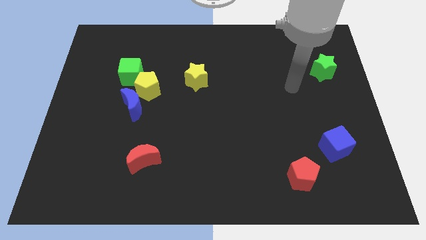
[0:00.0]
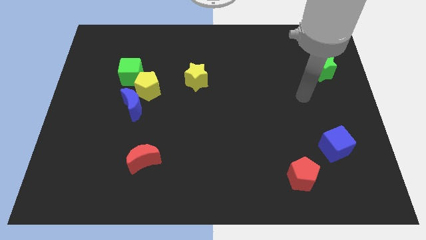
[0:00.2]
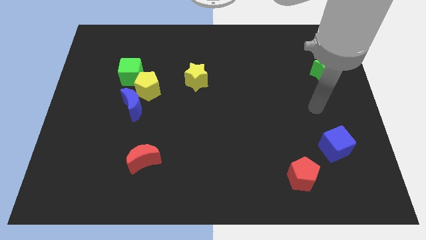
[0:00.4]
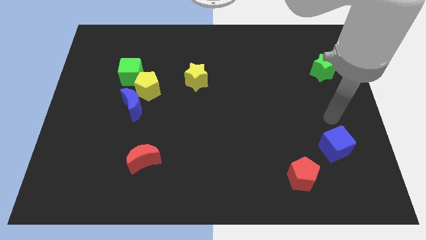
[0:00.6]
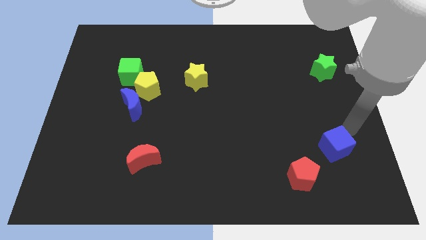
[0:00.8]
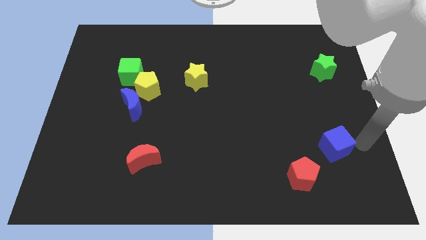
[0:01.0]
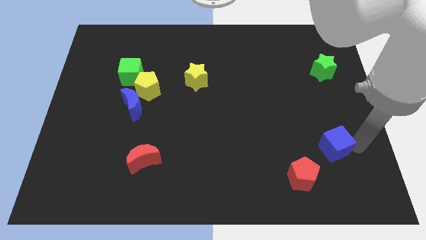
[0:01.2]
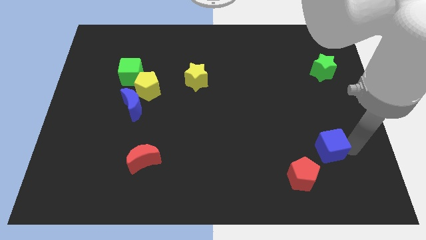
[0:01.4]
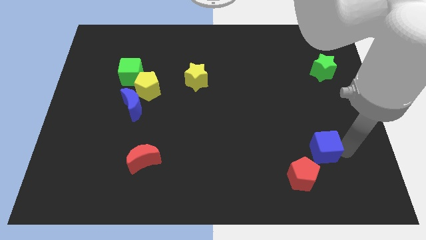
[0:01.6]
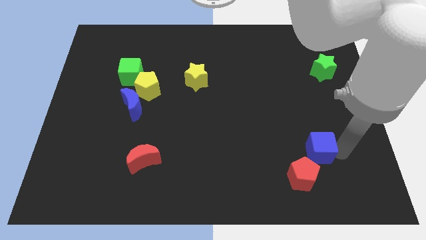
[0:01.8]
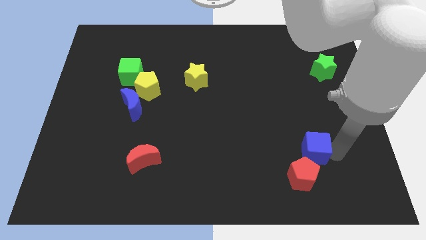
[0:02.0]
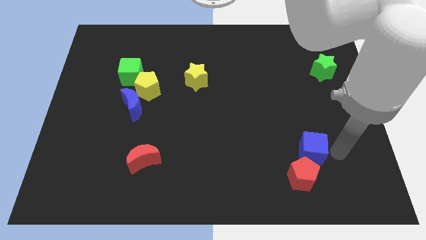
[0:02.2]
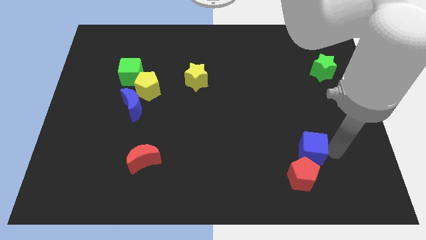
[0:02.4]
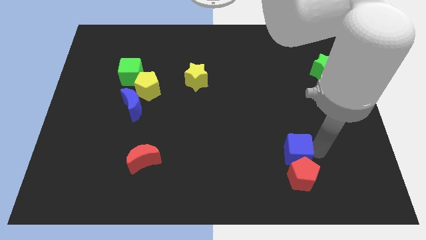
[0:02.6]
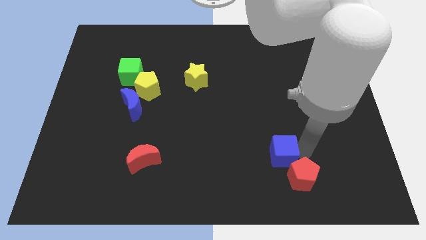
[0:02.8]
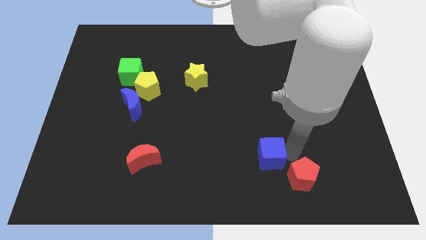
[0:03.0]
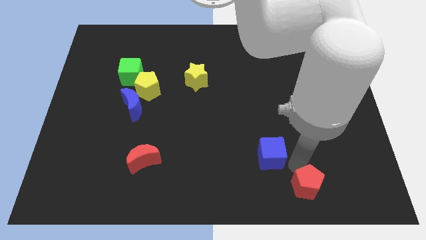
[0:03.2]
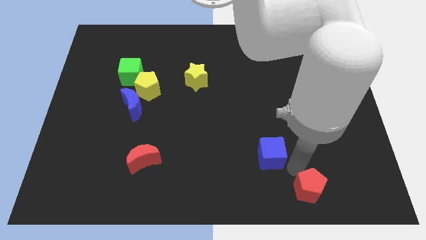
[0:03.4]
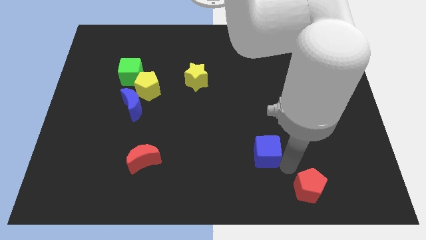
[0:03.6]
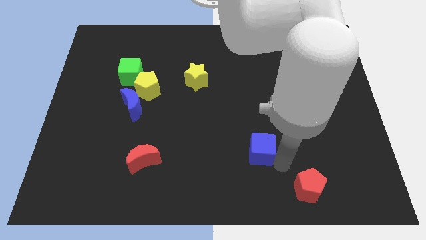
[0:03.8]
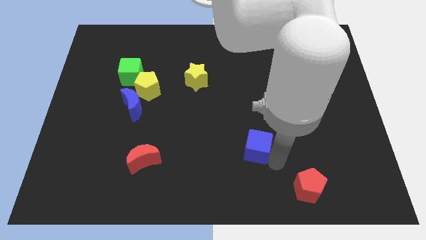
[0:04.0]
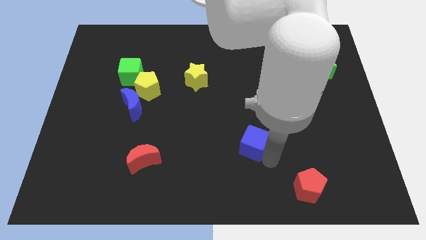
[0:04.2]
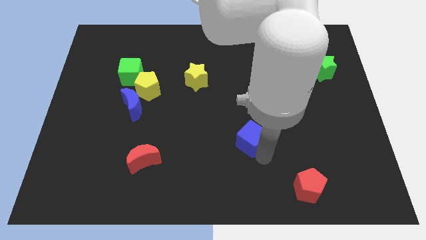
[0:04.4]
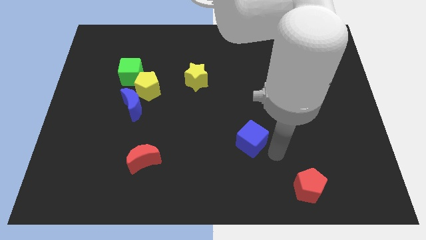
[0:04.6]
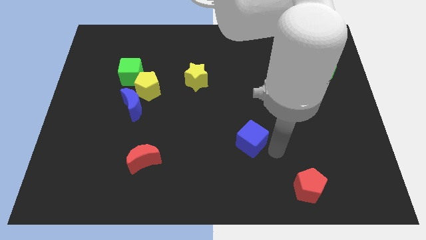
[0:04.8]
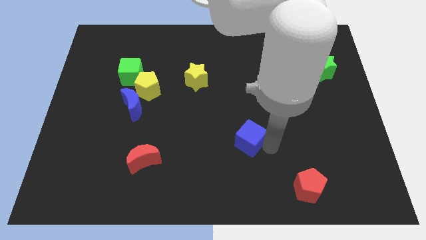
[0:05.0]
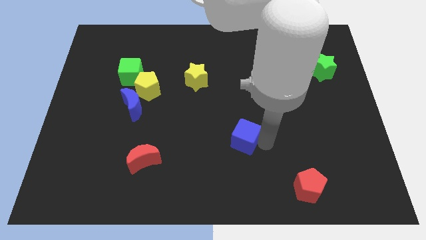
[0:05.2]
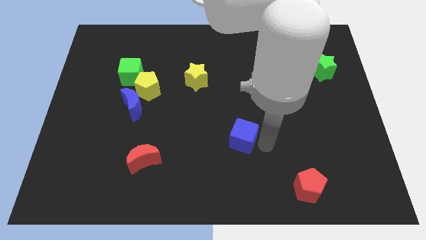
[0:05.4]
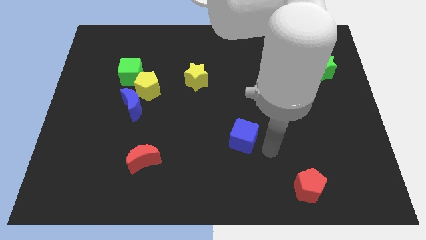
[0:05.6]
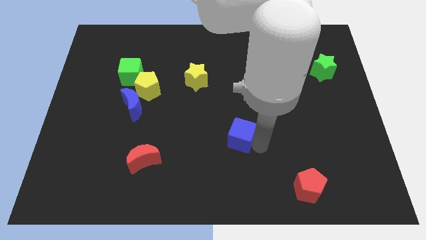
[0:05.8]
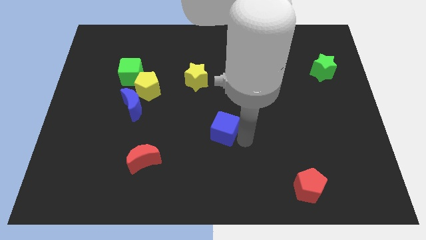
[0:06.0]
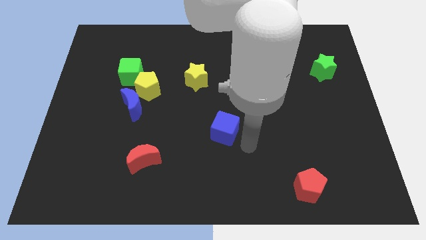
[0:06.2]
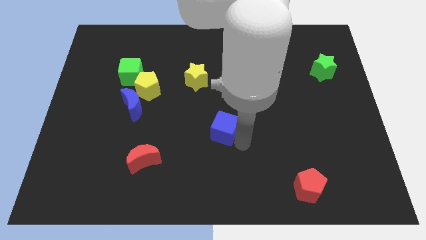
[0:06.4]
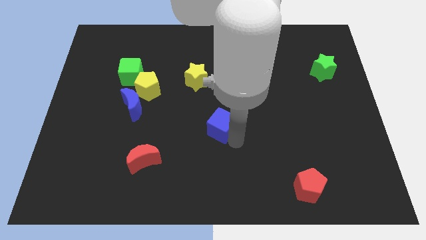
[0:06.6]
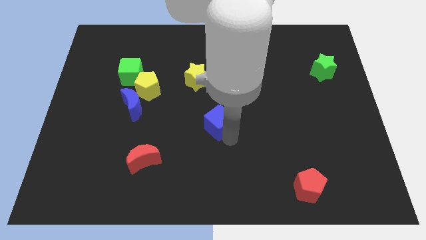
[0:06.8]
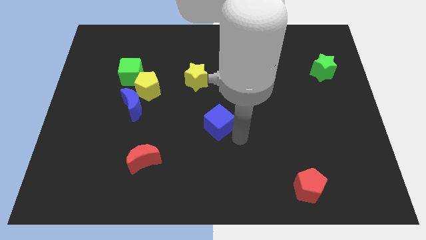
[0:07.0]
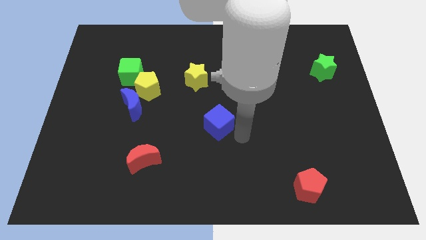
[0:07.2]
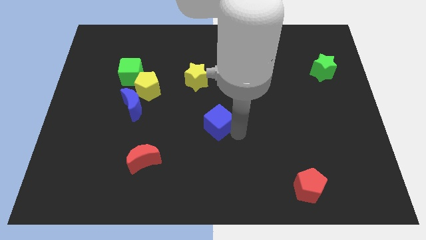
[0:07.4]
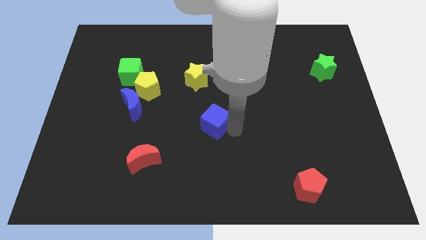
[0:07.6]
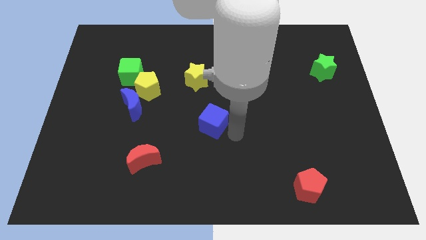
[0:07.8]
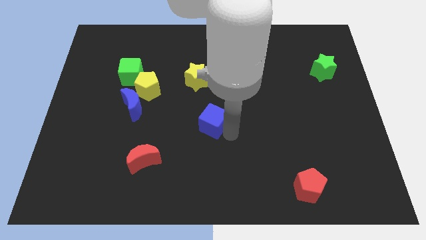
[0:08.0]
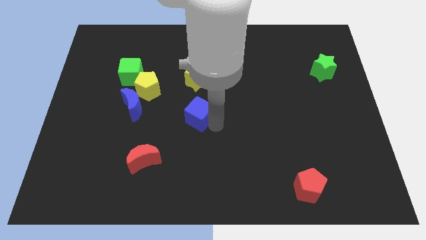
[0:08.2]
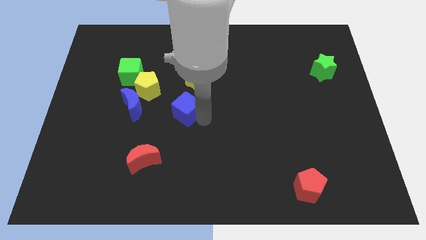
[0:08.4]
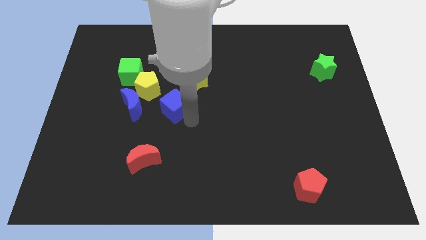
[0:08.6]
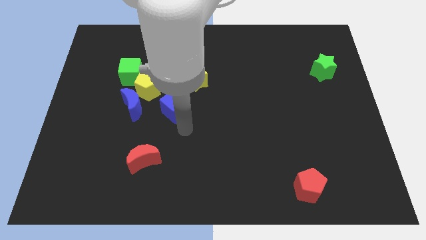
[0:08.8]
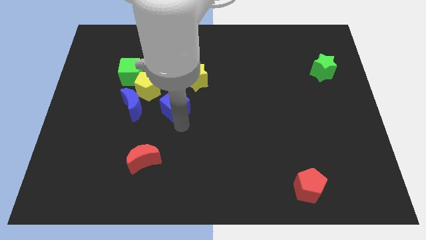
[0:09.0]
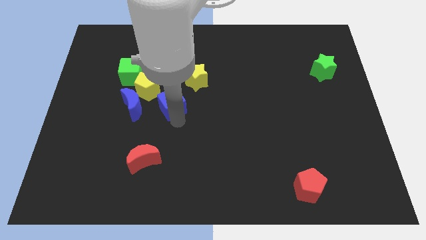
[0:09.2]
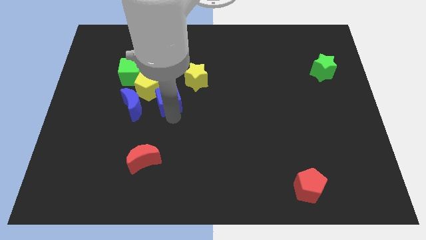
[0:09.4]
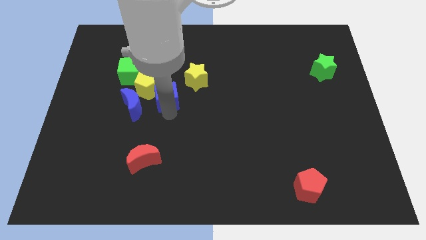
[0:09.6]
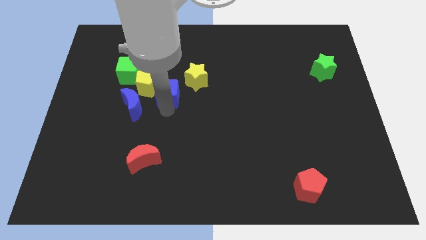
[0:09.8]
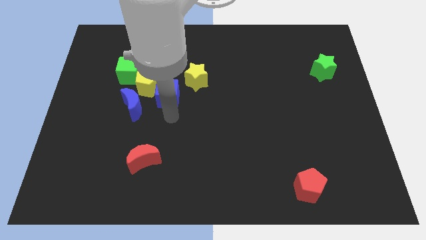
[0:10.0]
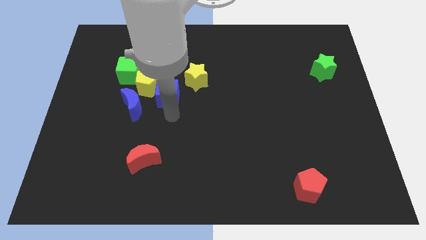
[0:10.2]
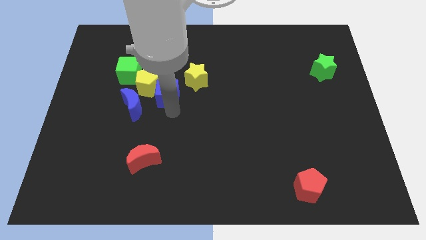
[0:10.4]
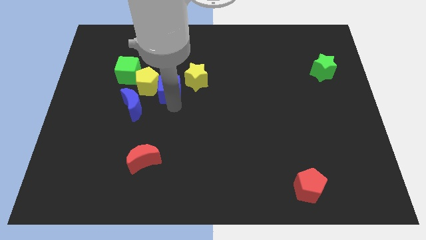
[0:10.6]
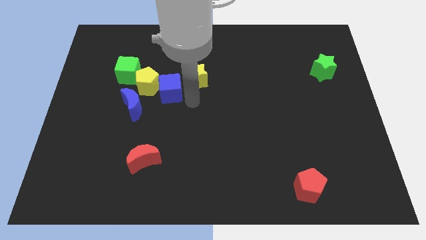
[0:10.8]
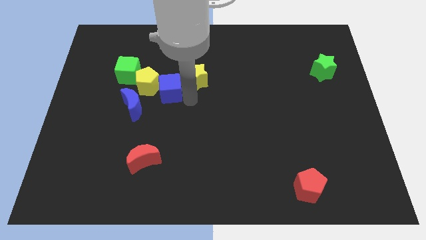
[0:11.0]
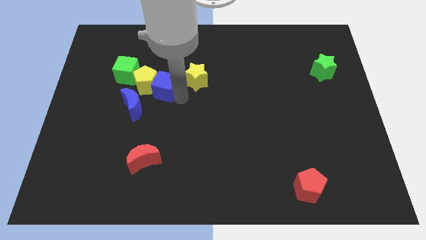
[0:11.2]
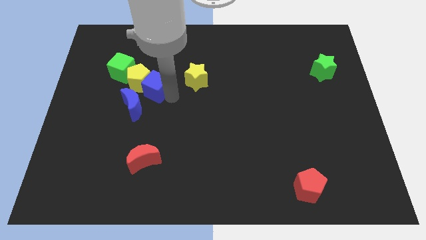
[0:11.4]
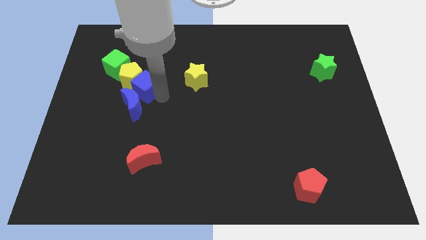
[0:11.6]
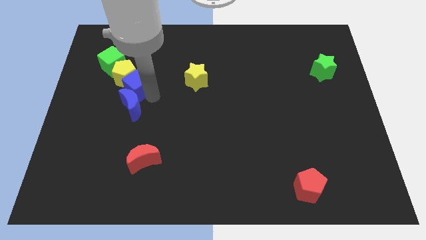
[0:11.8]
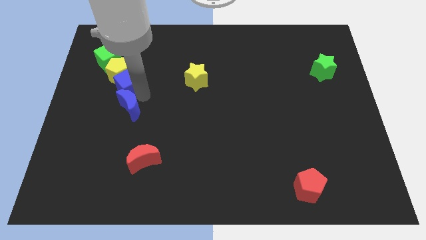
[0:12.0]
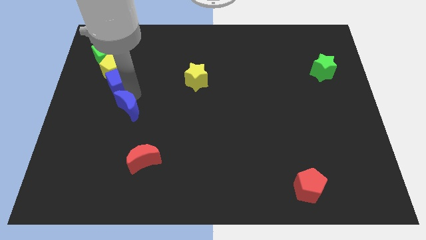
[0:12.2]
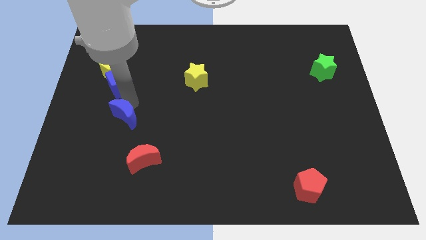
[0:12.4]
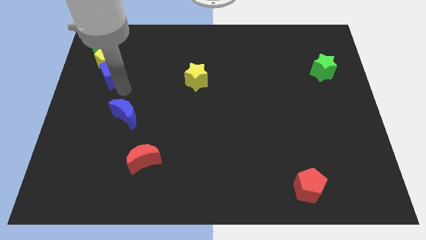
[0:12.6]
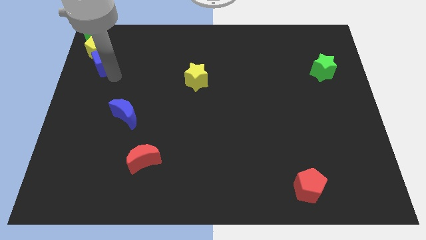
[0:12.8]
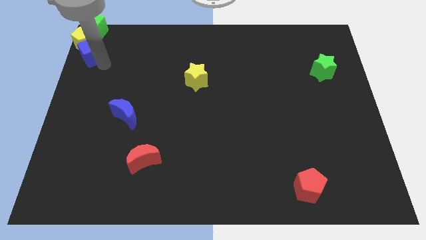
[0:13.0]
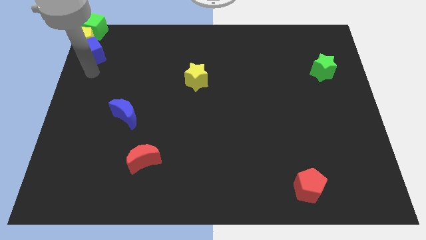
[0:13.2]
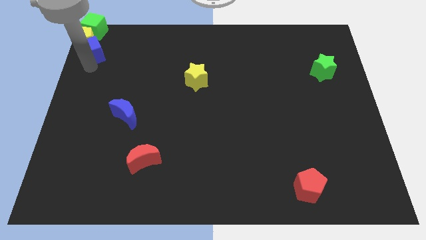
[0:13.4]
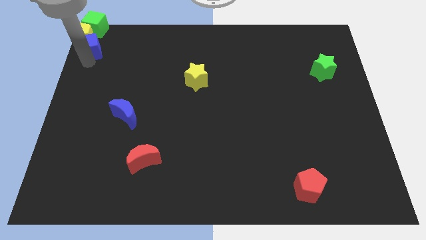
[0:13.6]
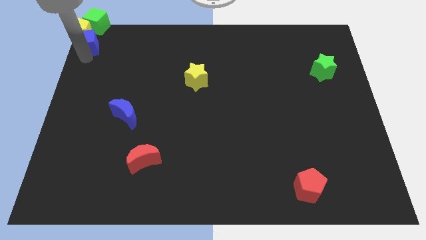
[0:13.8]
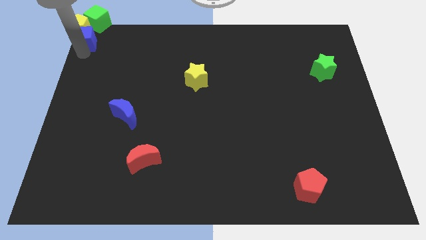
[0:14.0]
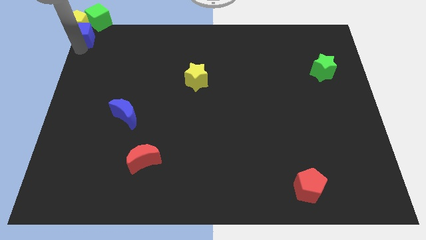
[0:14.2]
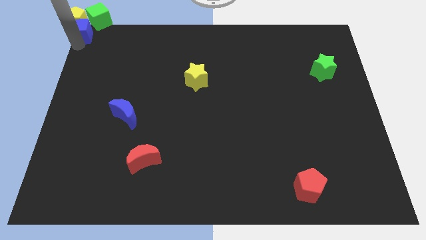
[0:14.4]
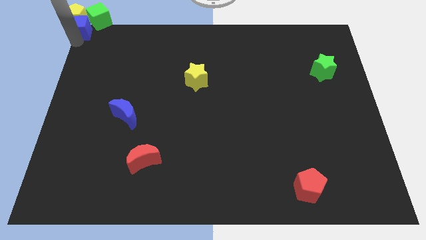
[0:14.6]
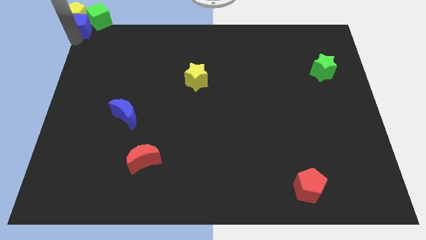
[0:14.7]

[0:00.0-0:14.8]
push the blue cube towards the green cube
